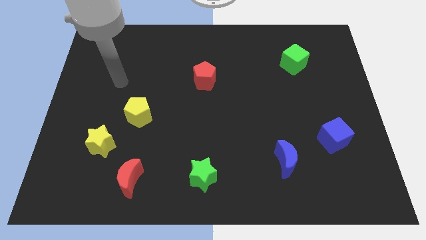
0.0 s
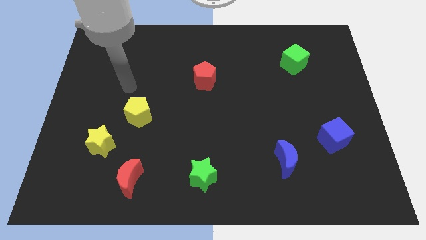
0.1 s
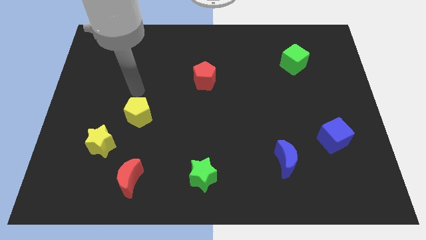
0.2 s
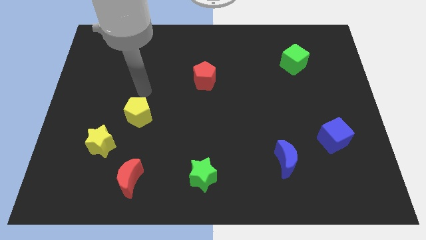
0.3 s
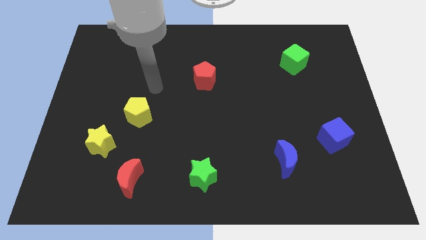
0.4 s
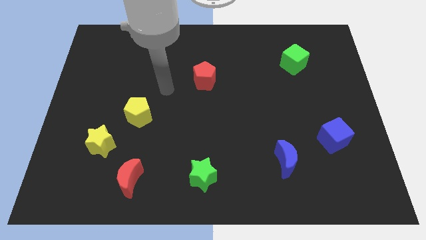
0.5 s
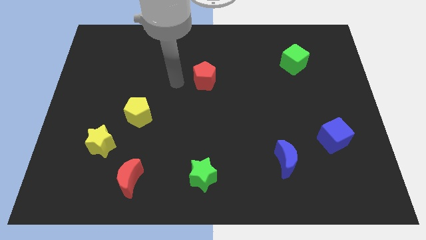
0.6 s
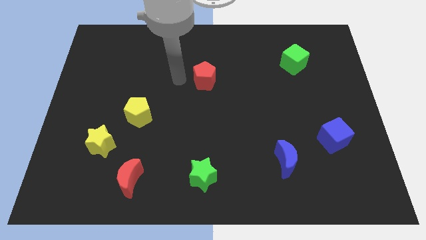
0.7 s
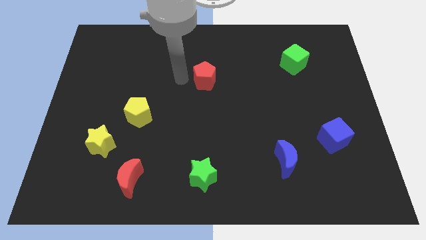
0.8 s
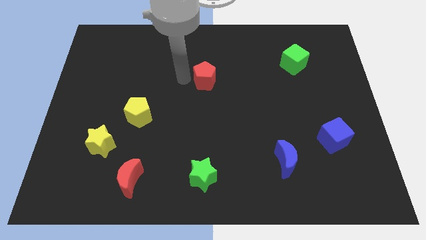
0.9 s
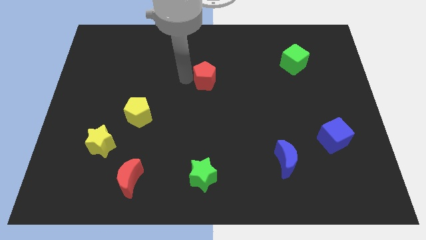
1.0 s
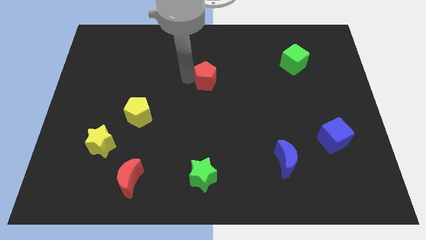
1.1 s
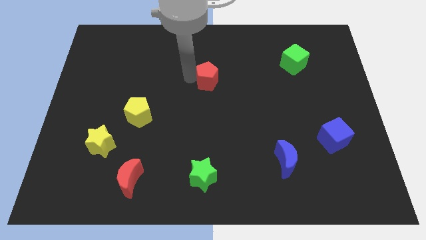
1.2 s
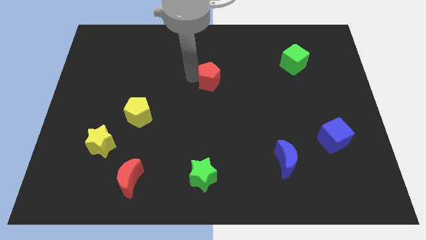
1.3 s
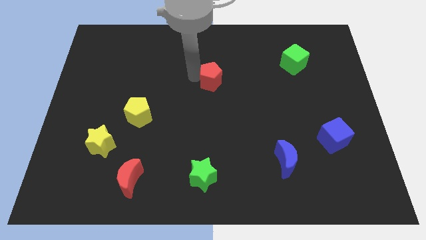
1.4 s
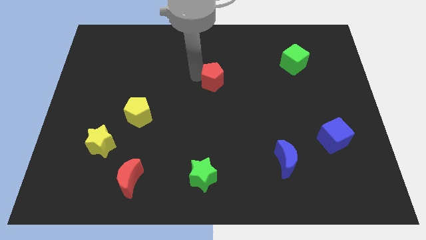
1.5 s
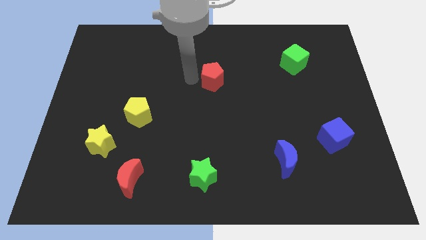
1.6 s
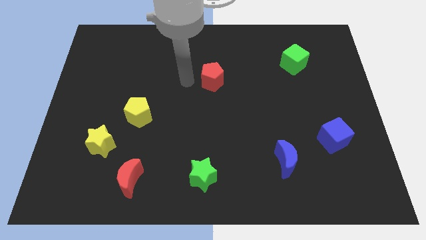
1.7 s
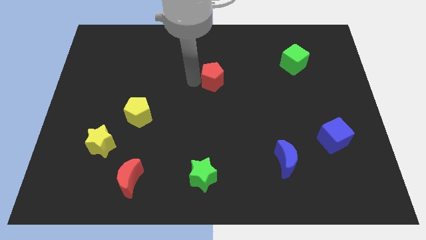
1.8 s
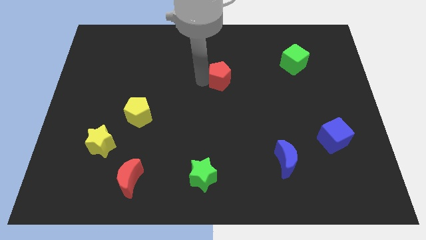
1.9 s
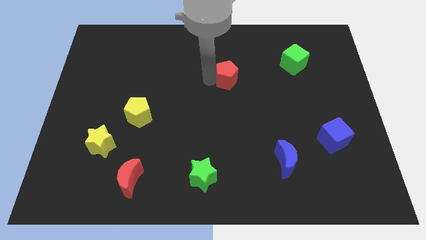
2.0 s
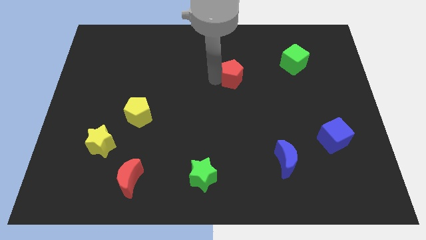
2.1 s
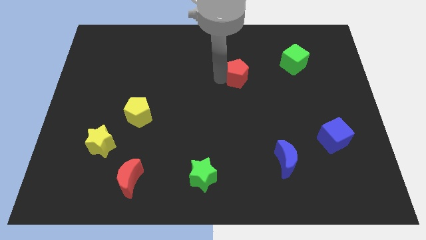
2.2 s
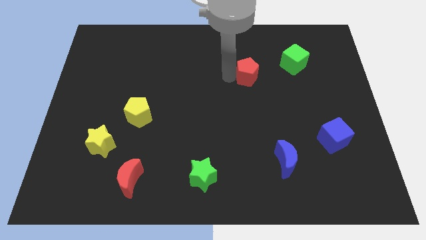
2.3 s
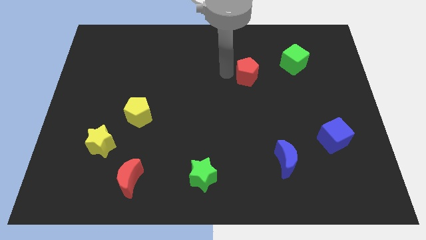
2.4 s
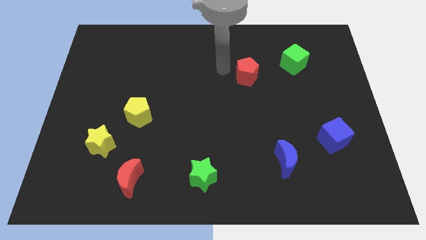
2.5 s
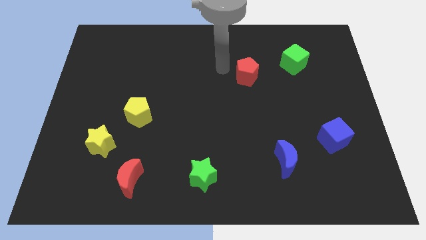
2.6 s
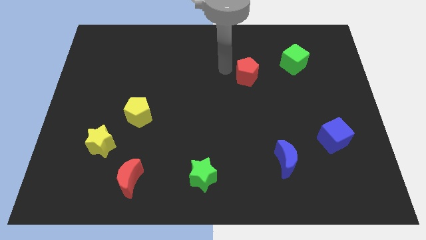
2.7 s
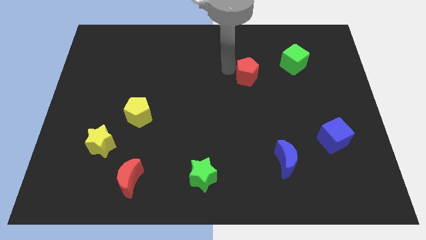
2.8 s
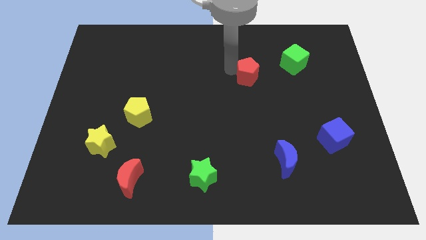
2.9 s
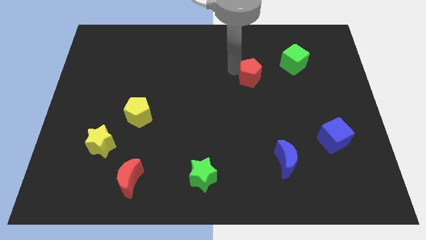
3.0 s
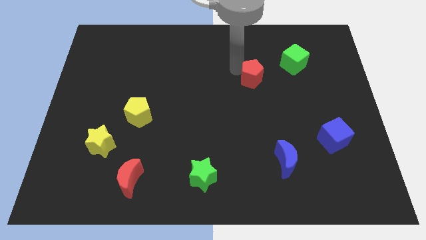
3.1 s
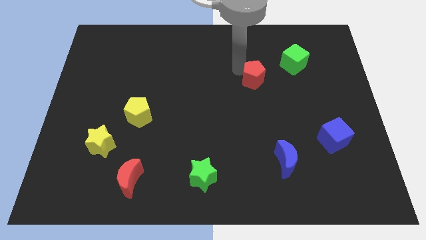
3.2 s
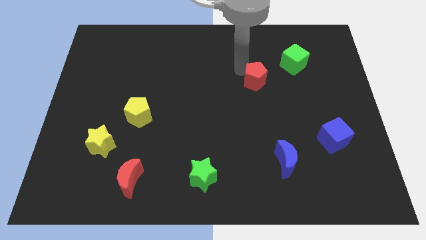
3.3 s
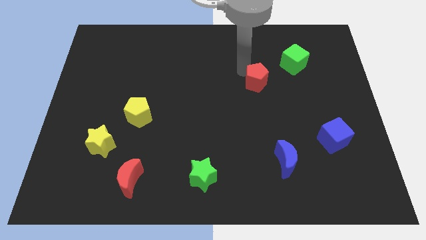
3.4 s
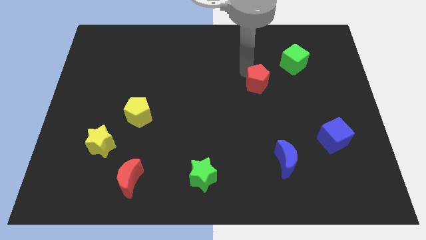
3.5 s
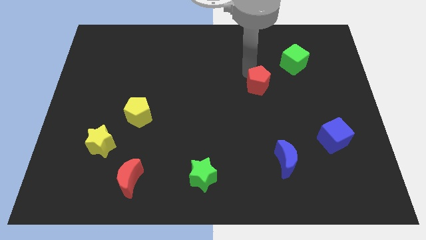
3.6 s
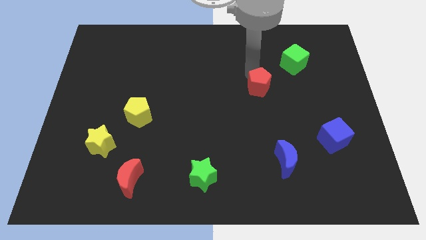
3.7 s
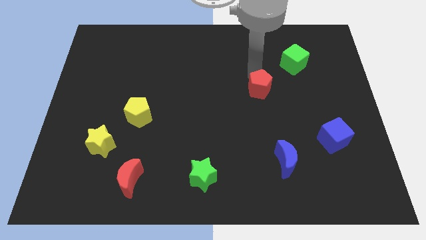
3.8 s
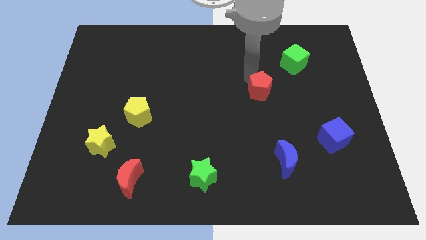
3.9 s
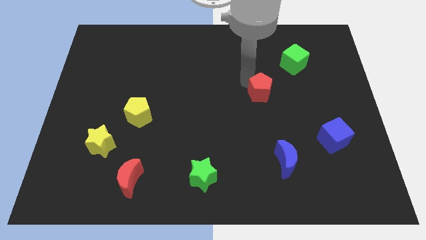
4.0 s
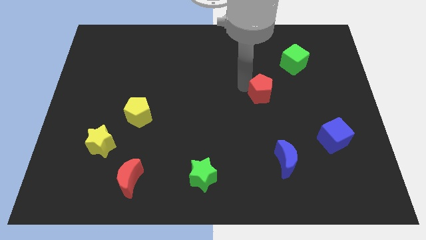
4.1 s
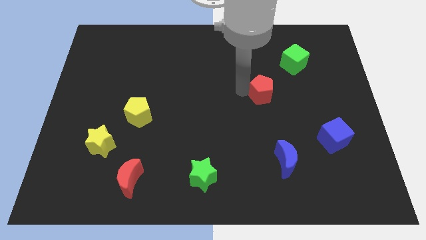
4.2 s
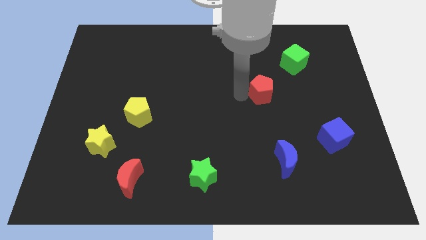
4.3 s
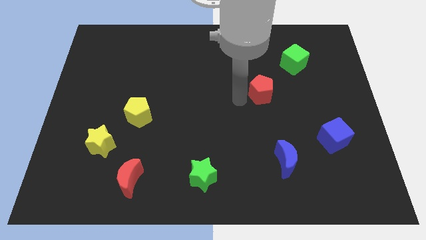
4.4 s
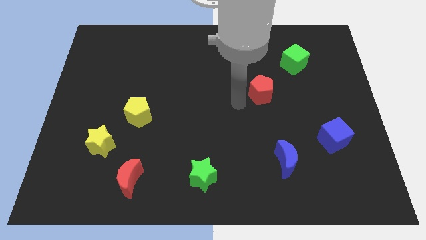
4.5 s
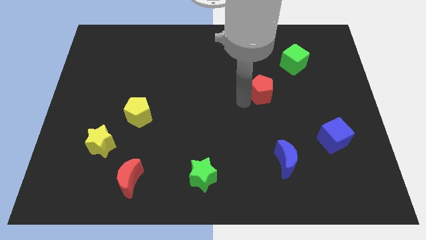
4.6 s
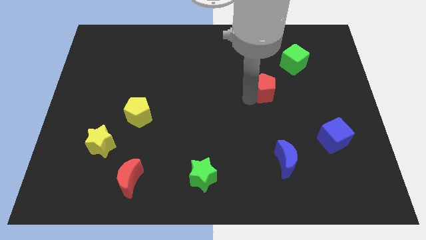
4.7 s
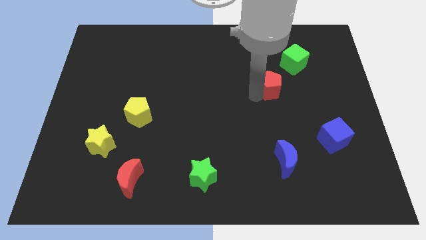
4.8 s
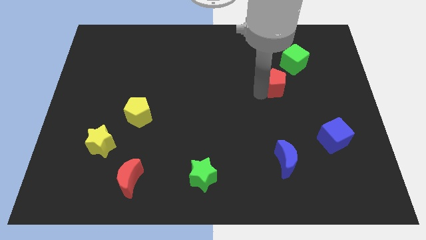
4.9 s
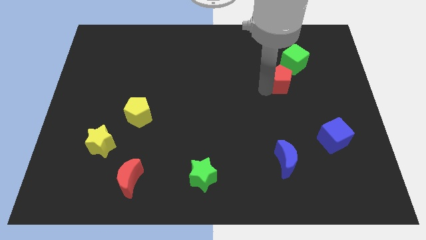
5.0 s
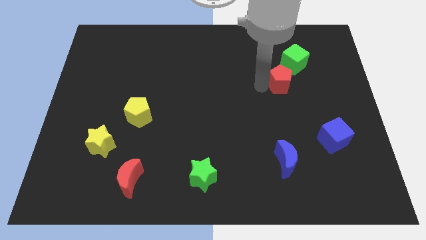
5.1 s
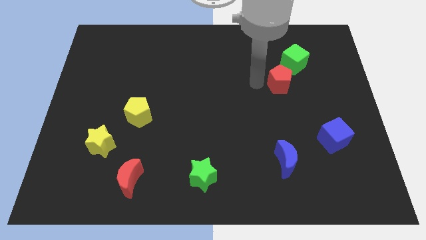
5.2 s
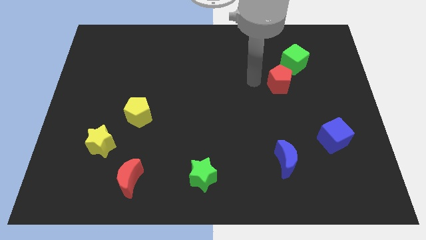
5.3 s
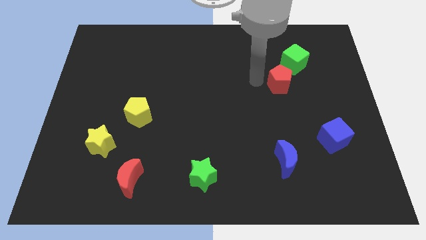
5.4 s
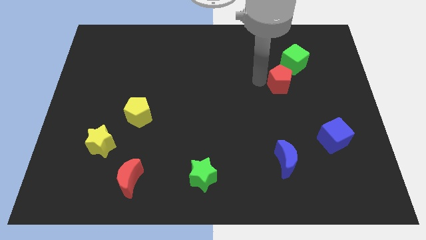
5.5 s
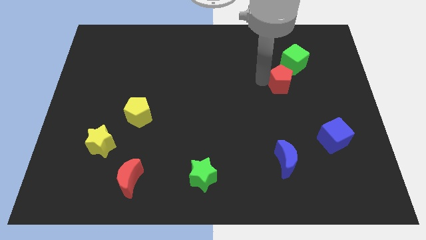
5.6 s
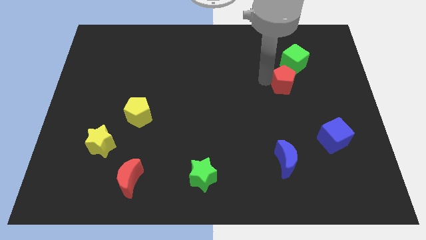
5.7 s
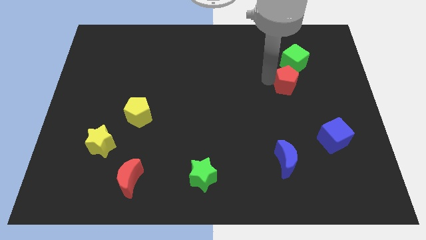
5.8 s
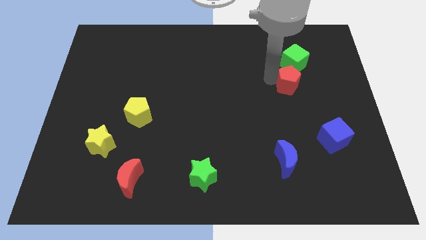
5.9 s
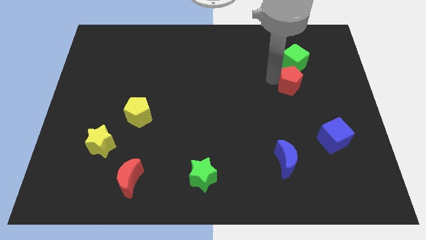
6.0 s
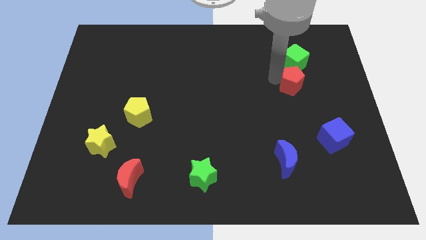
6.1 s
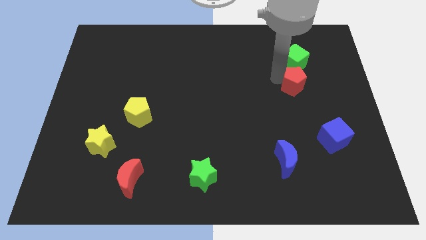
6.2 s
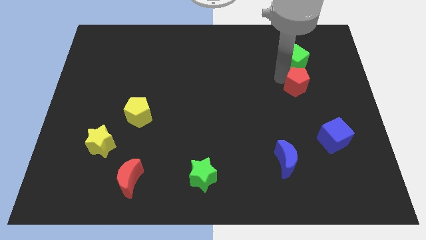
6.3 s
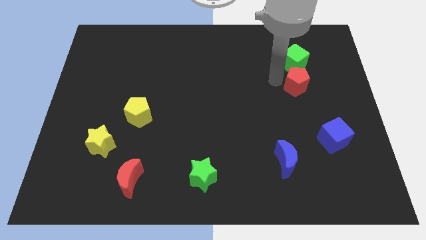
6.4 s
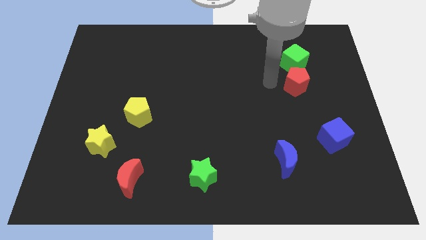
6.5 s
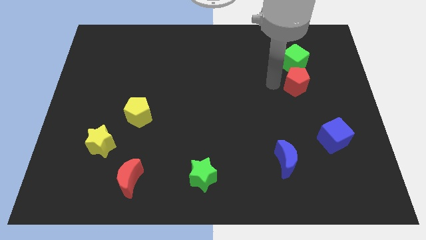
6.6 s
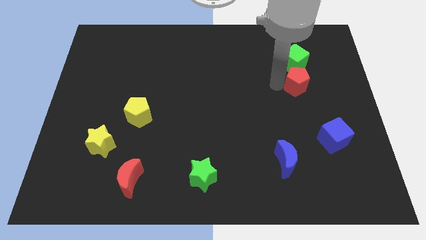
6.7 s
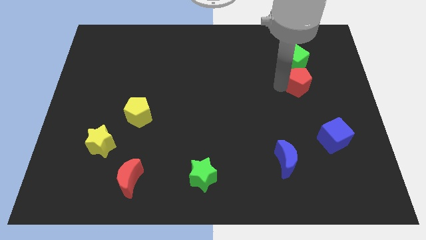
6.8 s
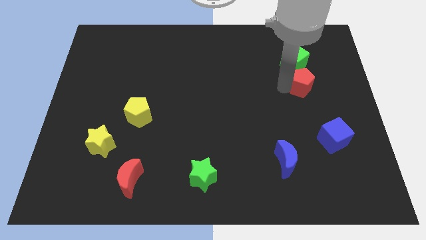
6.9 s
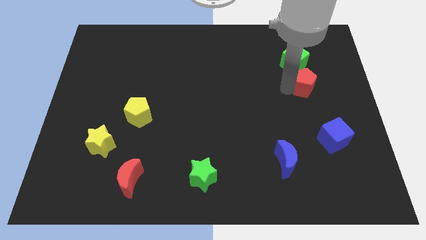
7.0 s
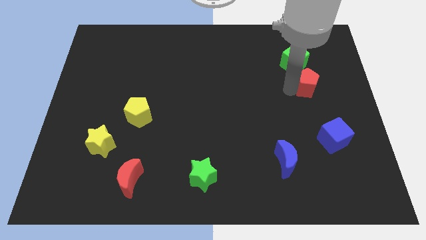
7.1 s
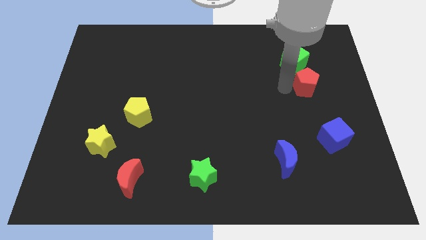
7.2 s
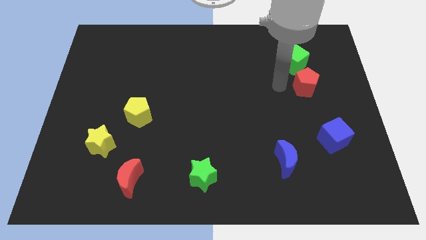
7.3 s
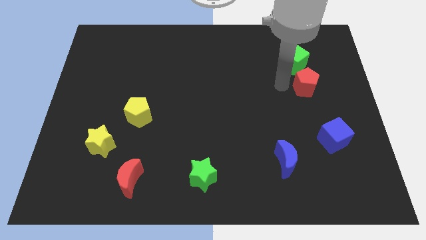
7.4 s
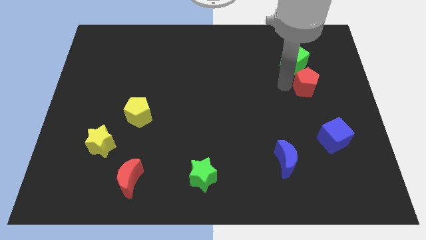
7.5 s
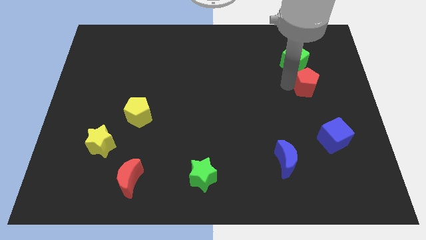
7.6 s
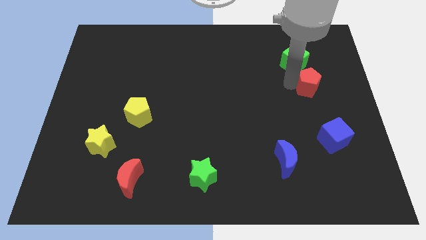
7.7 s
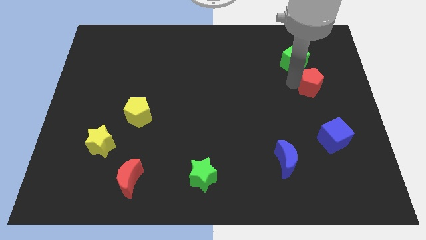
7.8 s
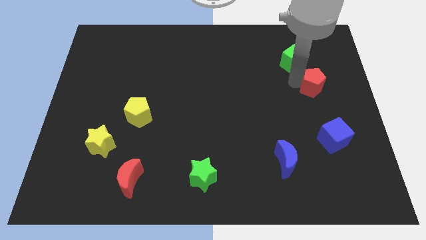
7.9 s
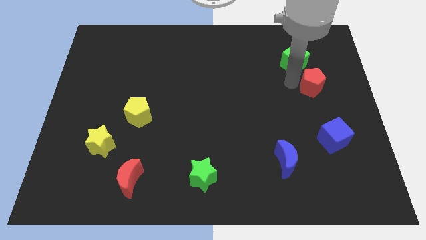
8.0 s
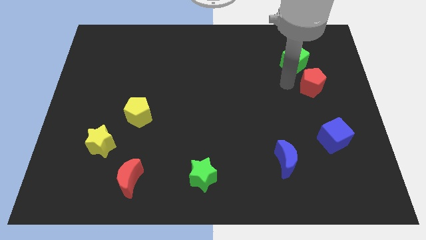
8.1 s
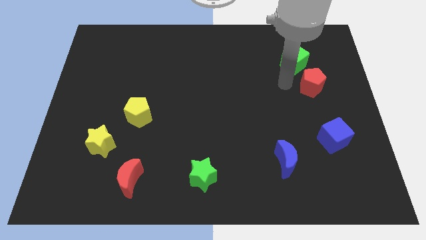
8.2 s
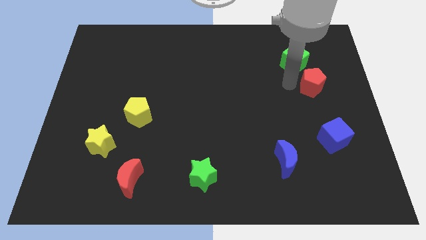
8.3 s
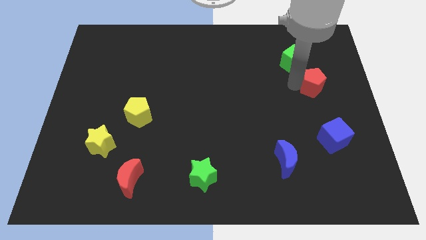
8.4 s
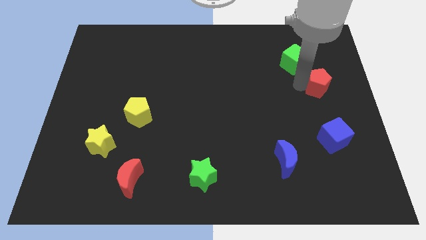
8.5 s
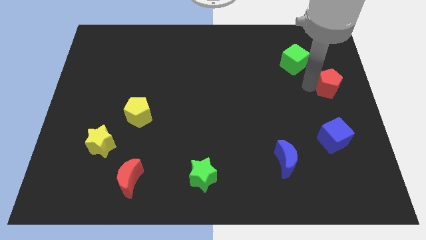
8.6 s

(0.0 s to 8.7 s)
slide the red pentagon to the center right
